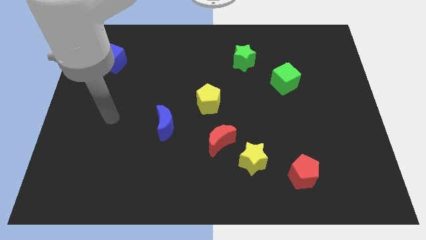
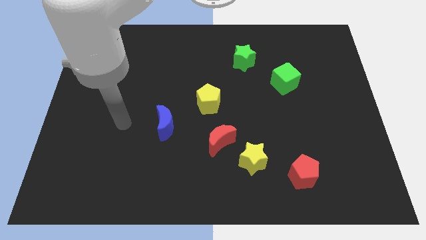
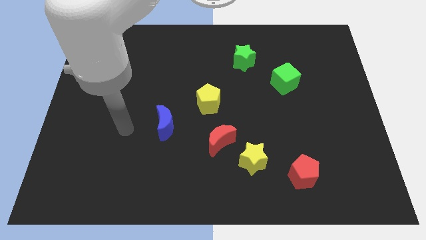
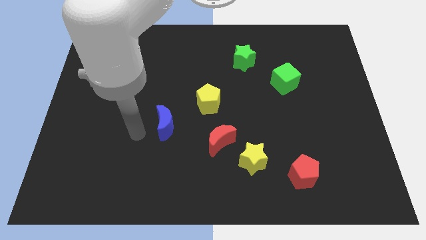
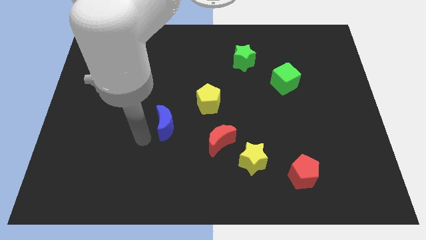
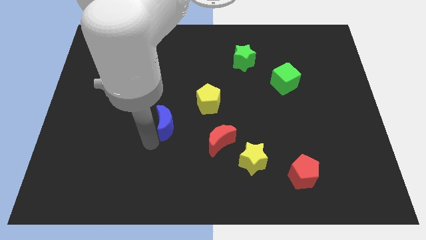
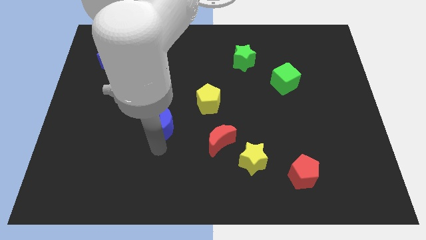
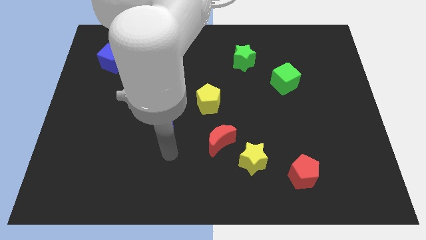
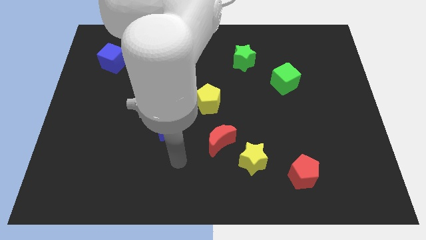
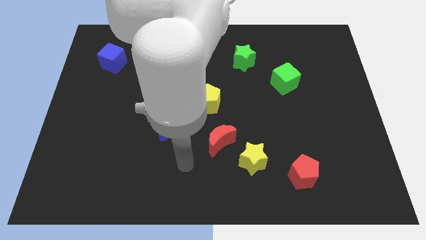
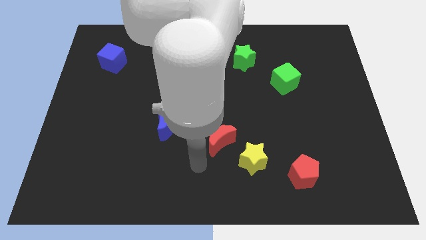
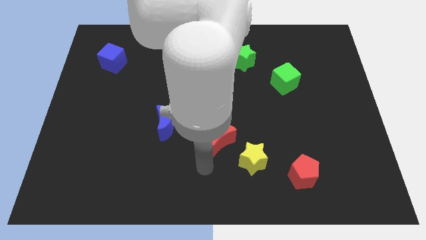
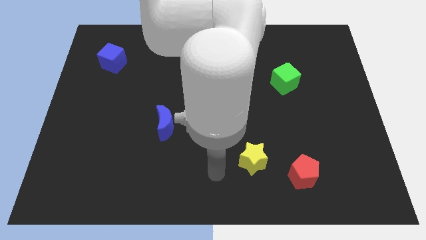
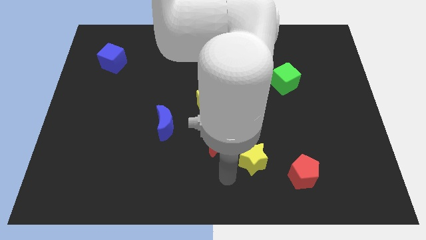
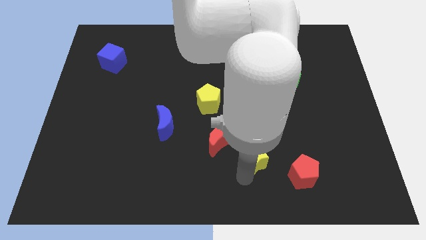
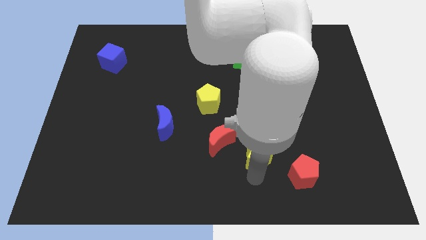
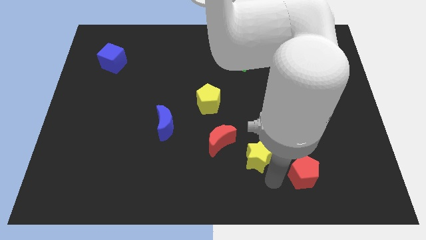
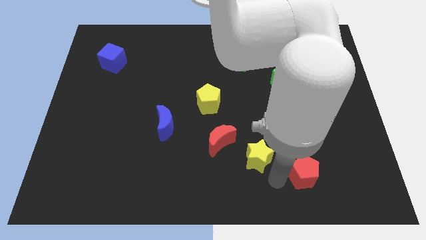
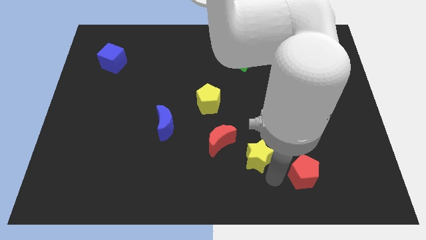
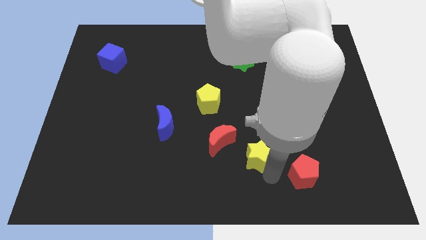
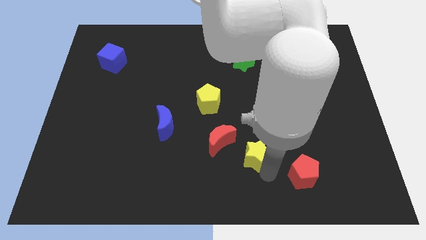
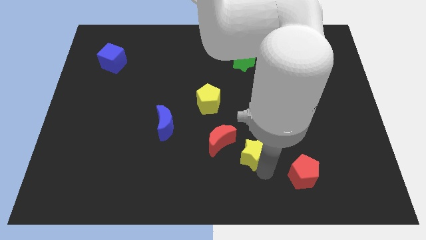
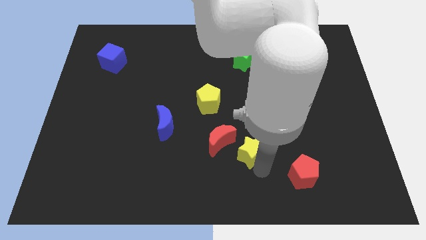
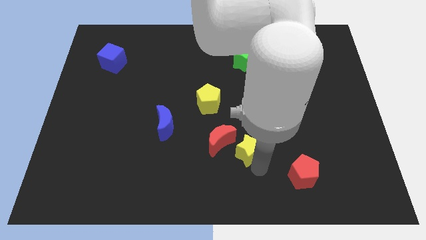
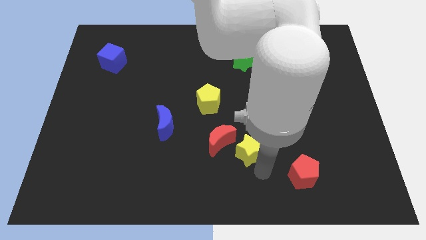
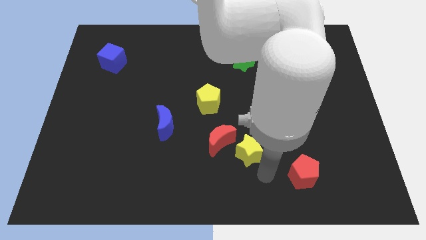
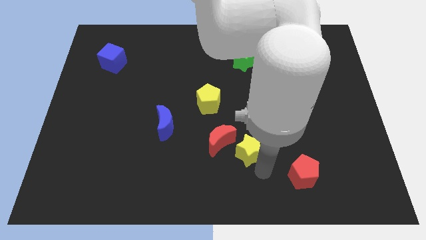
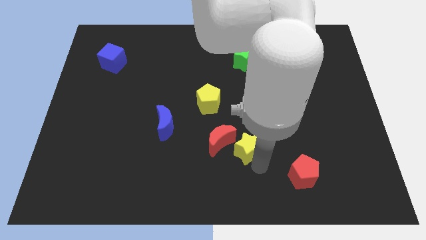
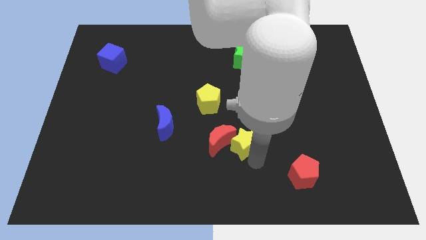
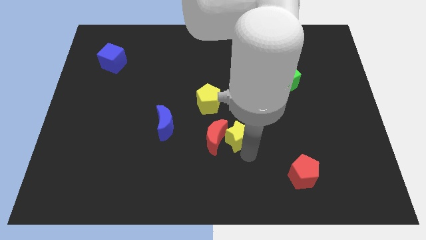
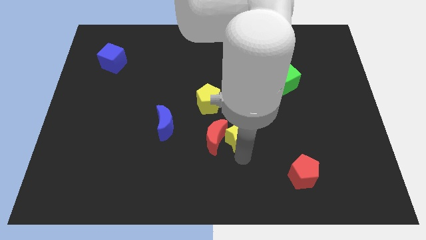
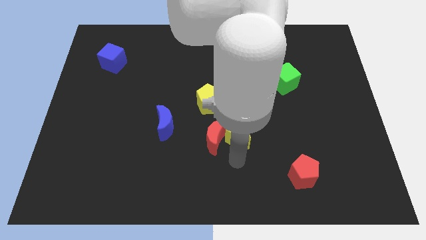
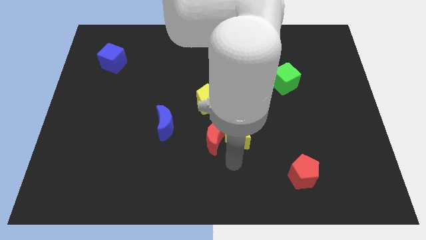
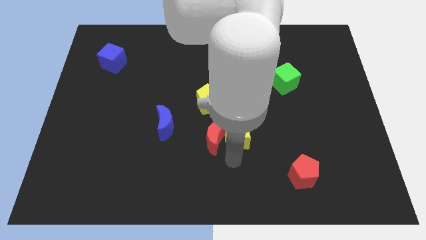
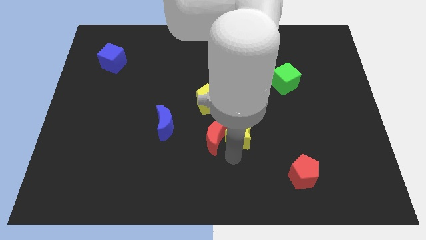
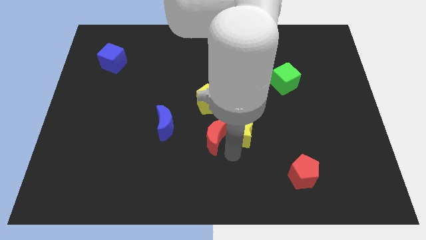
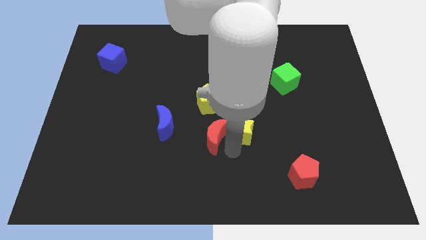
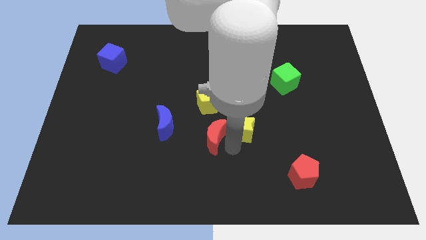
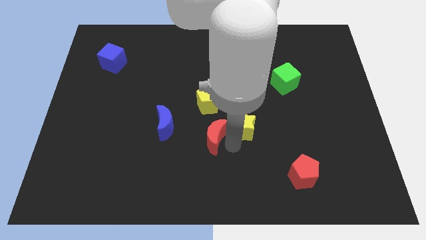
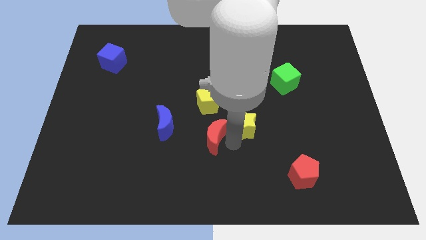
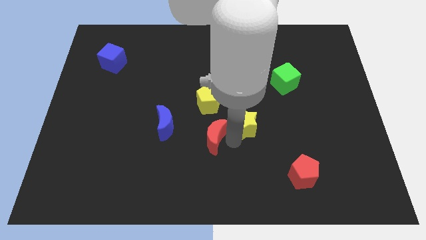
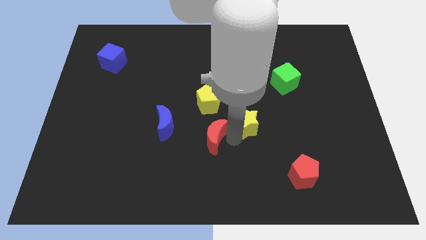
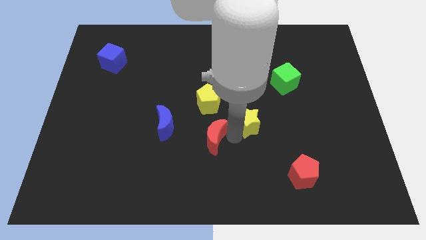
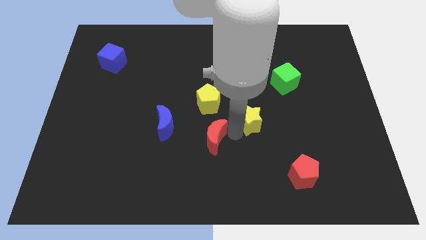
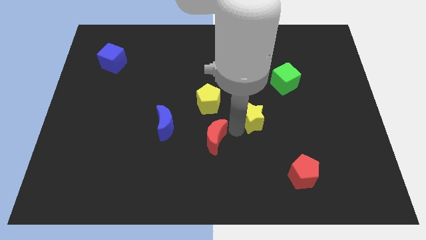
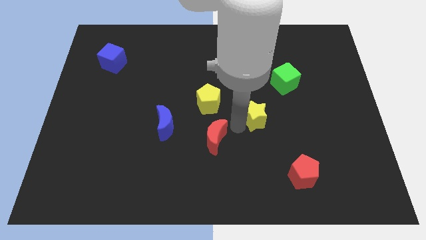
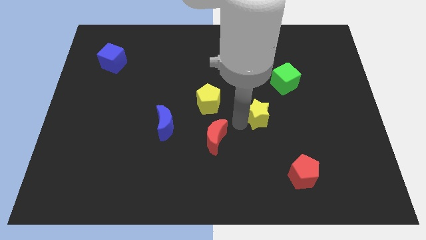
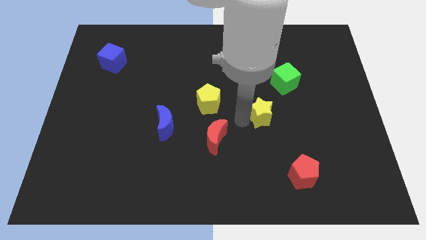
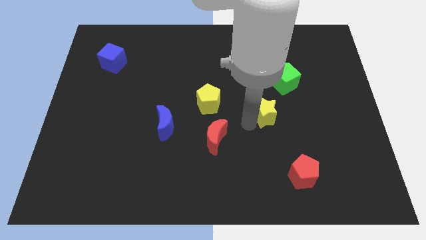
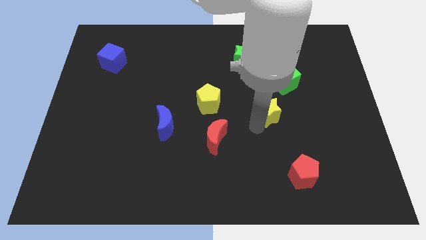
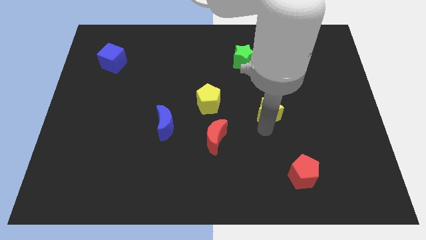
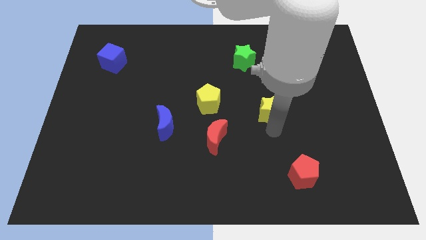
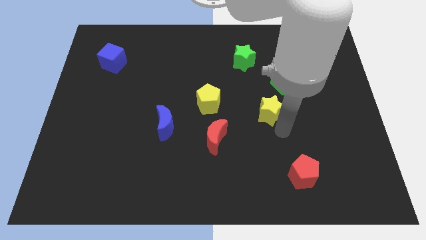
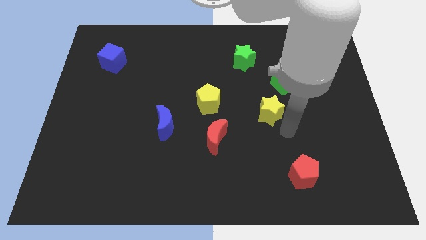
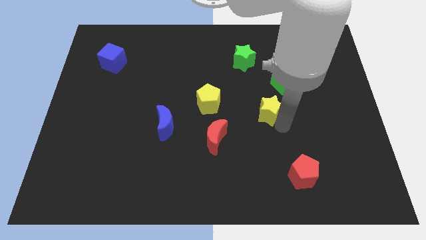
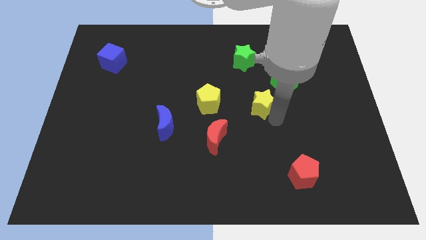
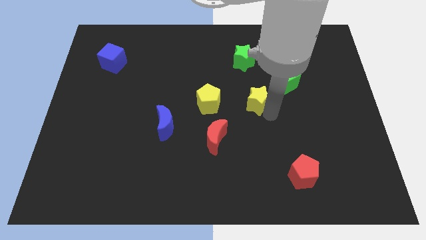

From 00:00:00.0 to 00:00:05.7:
move the yellow star below the green star

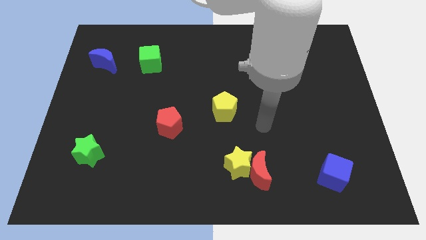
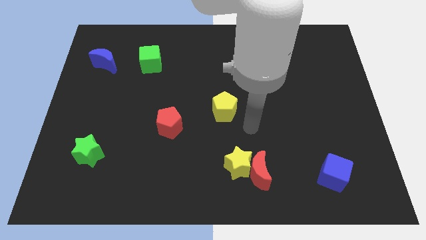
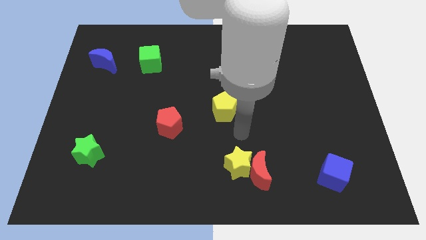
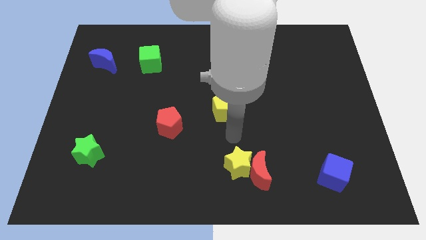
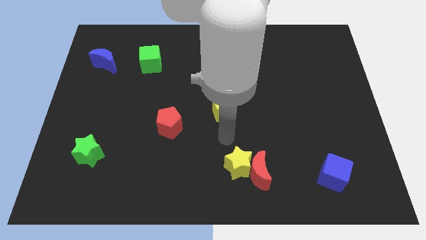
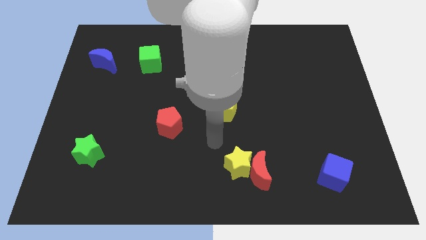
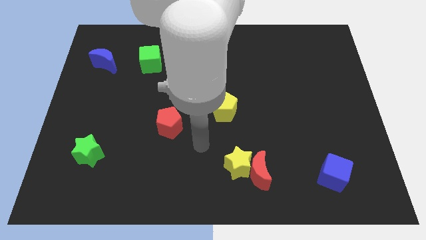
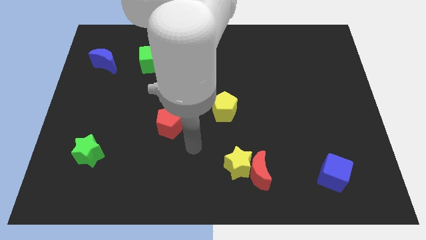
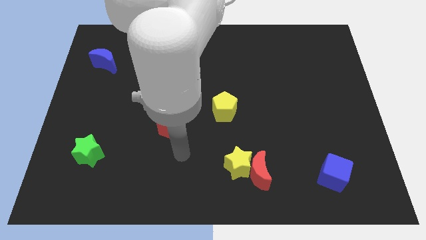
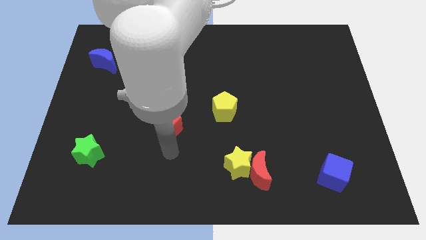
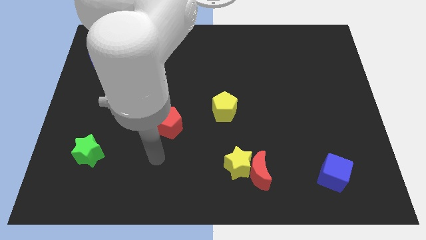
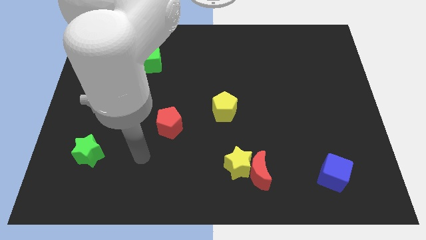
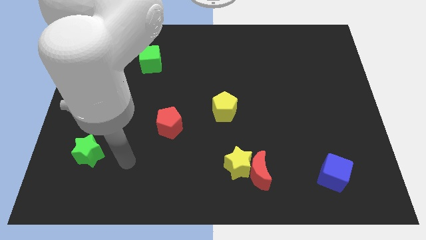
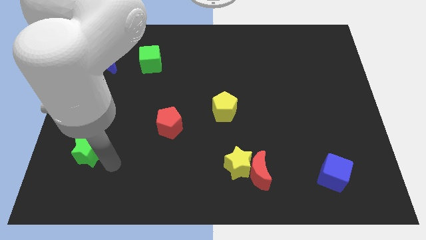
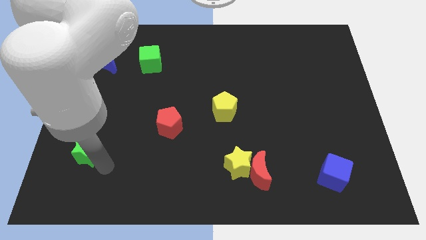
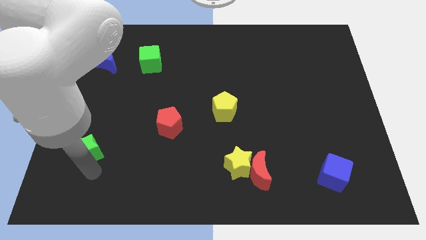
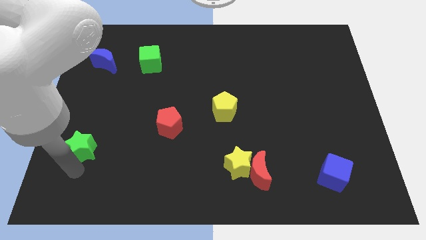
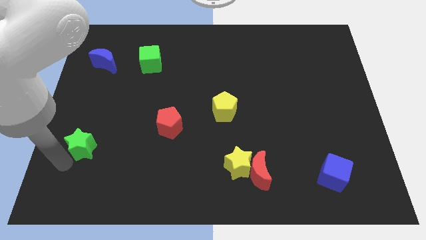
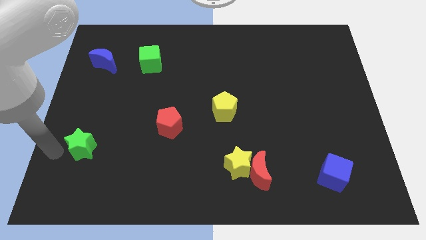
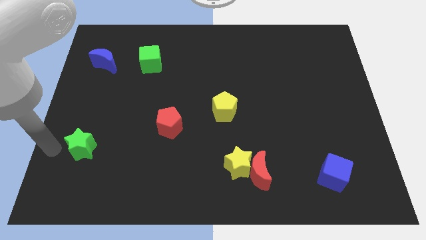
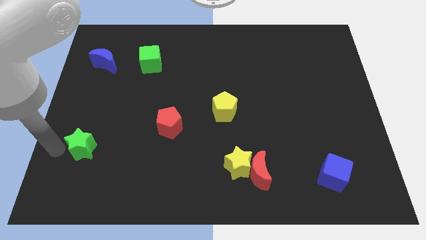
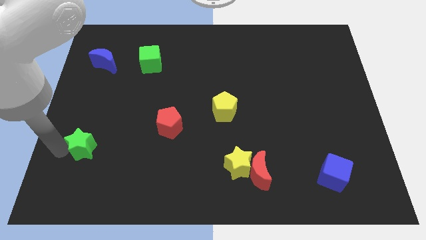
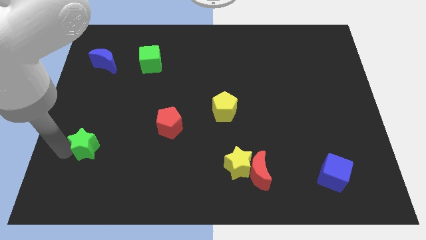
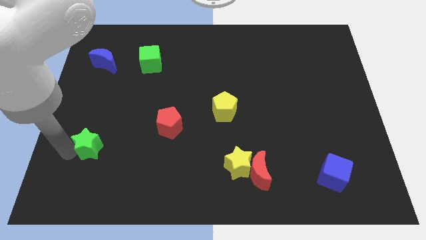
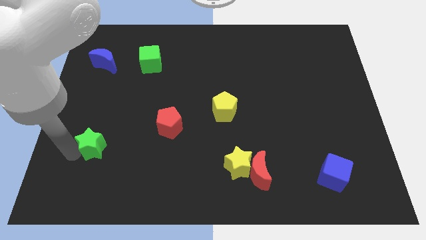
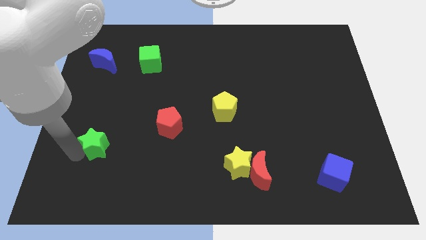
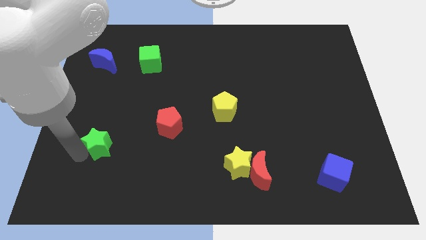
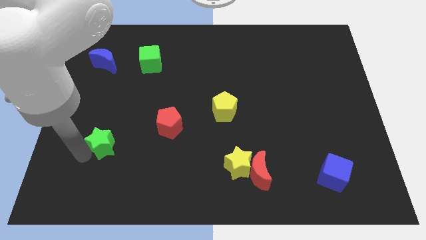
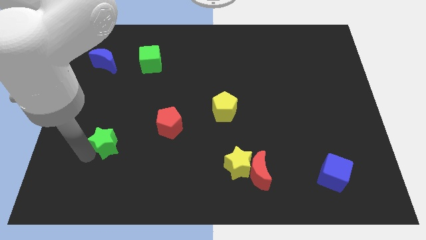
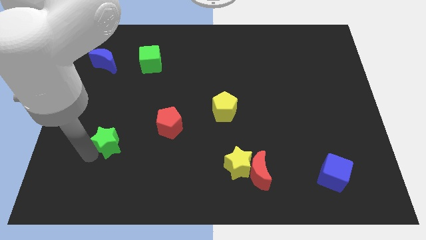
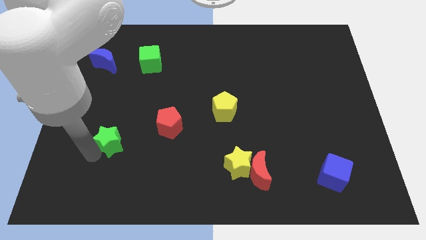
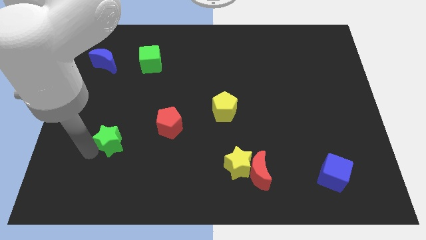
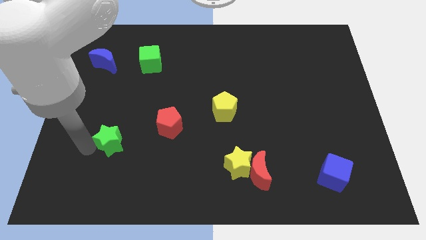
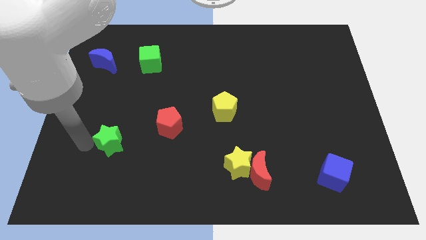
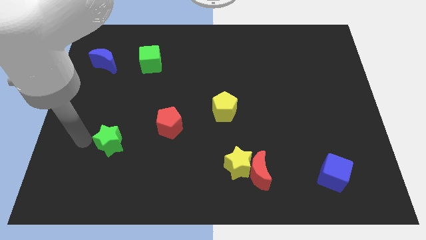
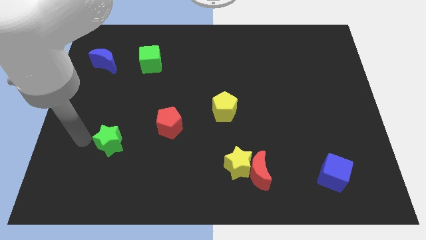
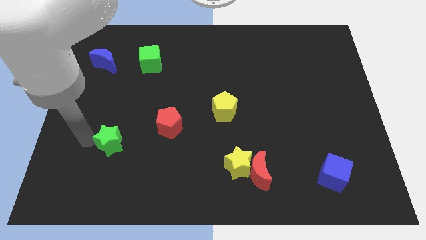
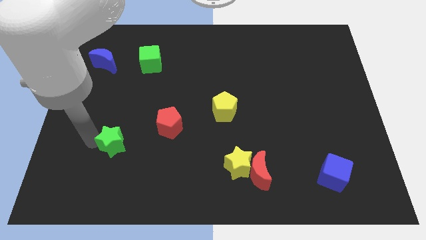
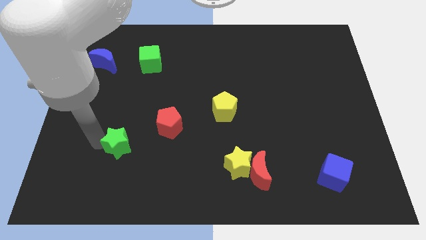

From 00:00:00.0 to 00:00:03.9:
slide the green star to the bottom left of the red pentagon
